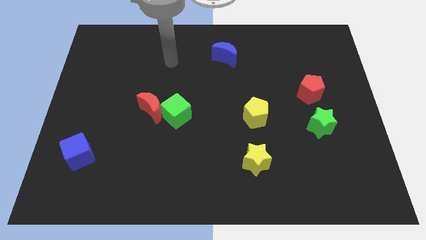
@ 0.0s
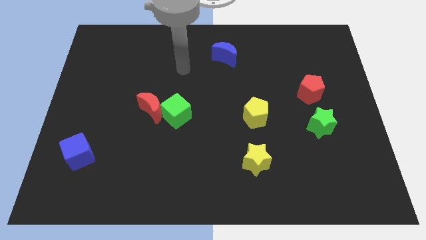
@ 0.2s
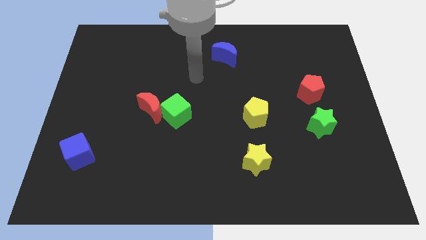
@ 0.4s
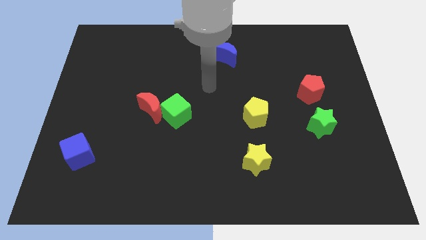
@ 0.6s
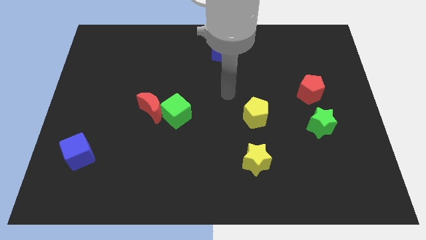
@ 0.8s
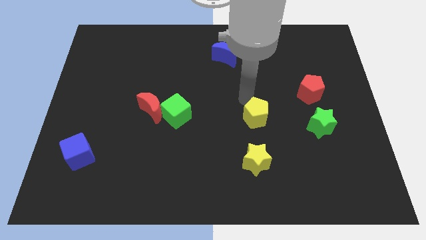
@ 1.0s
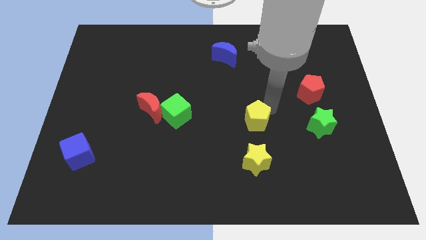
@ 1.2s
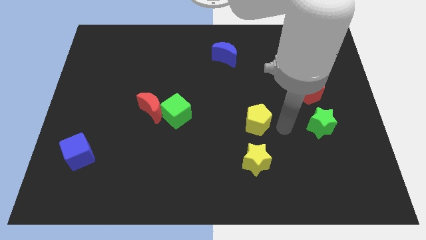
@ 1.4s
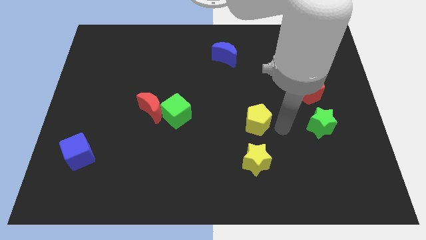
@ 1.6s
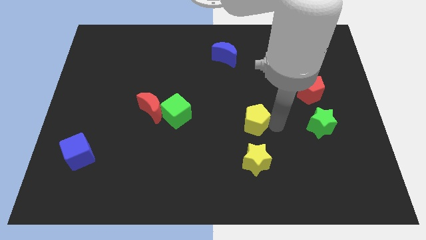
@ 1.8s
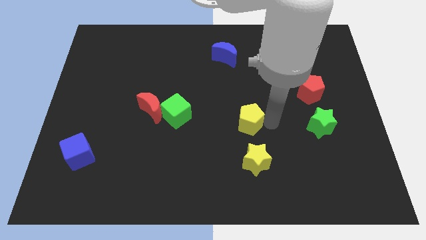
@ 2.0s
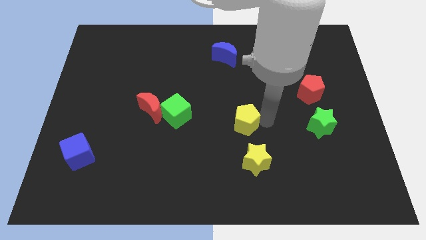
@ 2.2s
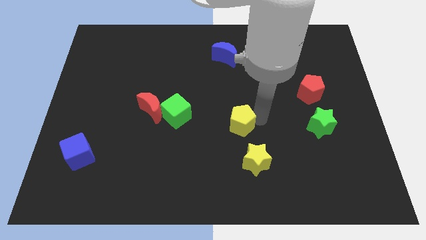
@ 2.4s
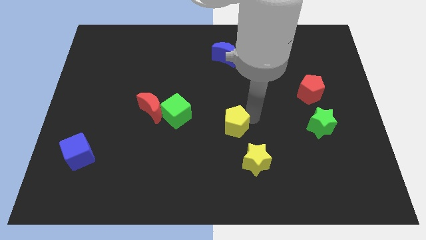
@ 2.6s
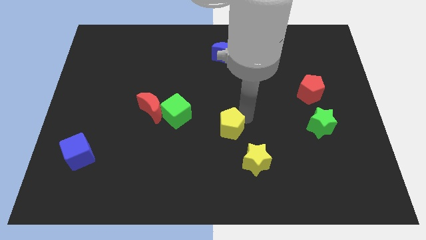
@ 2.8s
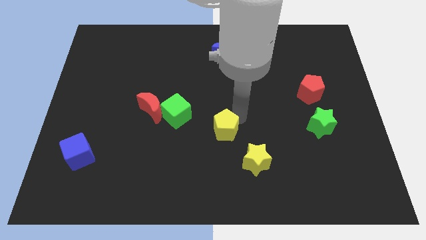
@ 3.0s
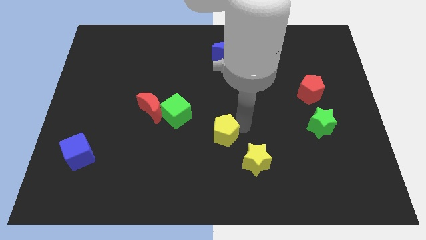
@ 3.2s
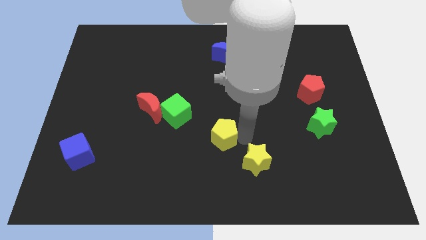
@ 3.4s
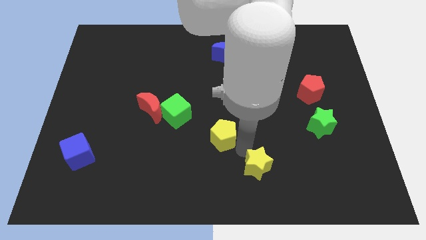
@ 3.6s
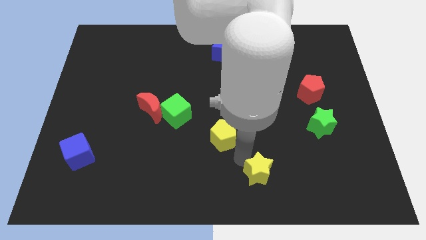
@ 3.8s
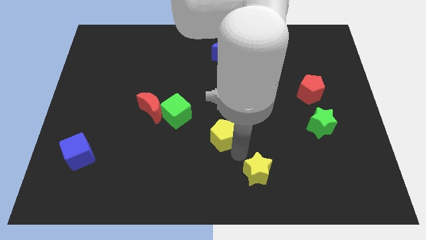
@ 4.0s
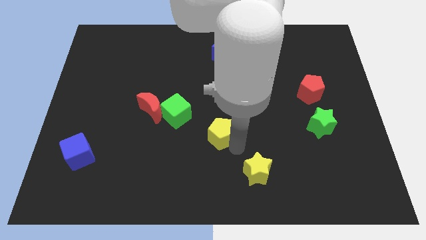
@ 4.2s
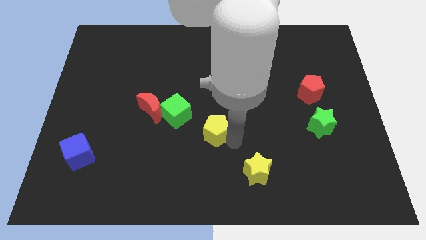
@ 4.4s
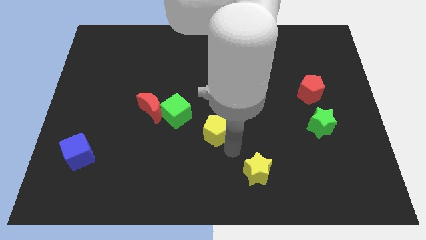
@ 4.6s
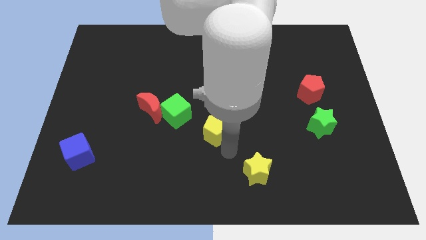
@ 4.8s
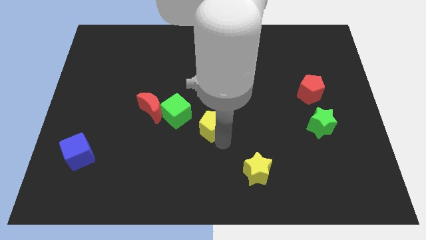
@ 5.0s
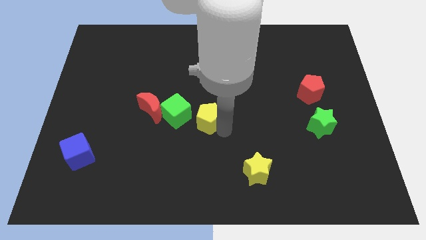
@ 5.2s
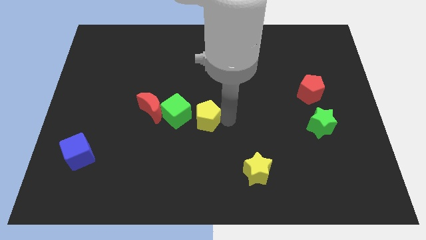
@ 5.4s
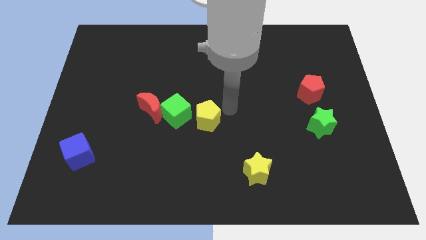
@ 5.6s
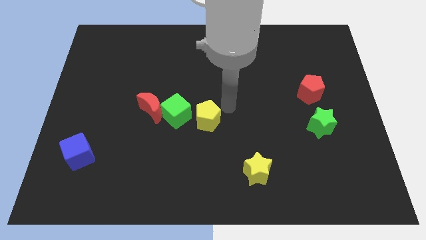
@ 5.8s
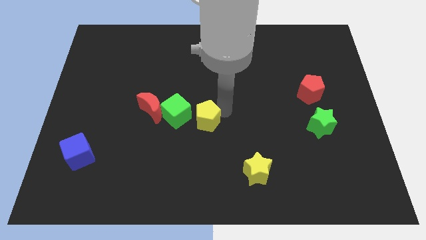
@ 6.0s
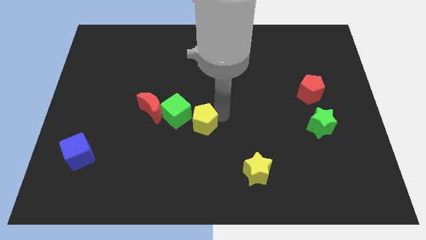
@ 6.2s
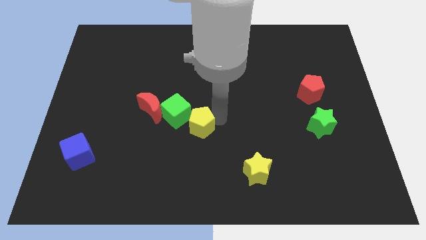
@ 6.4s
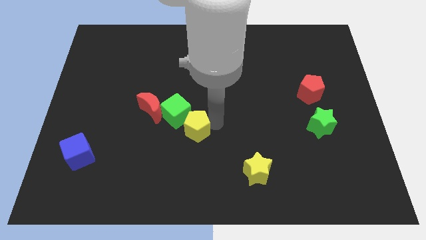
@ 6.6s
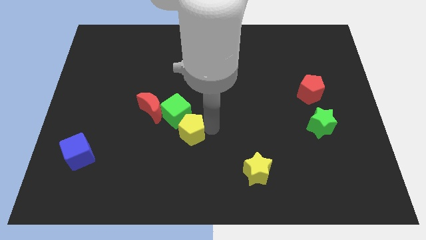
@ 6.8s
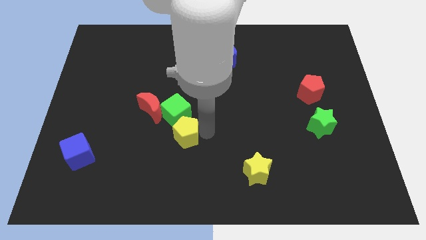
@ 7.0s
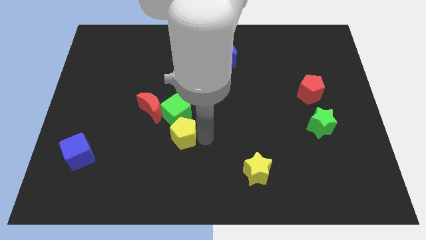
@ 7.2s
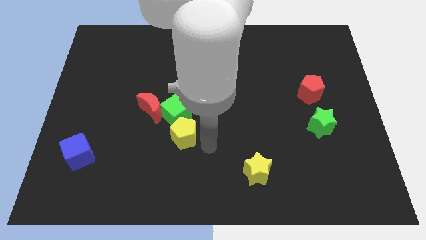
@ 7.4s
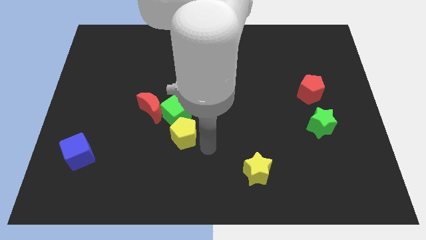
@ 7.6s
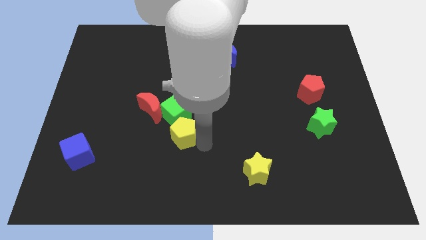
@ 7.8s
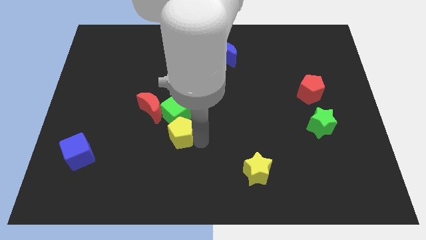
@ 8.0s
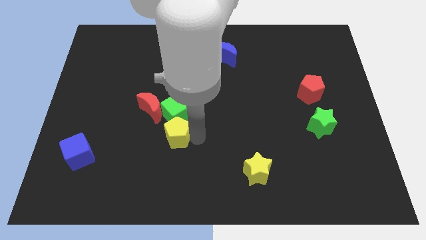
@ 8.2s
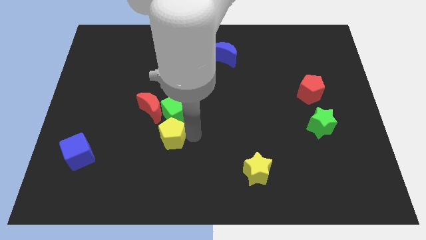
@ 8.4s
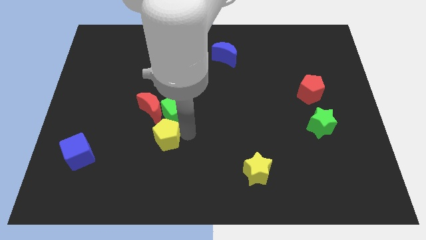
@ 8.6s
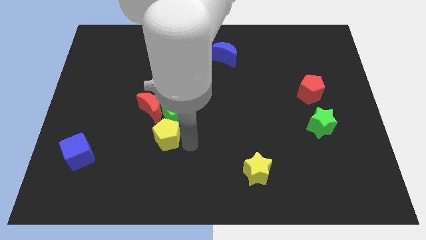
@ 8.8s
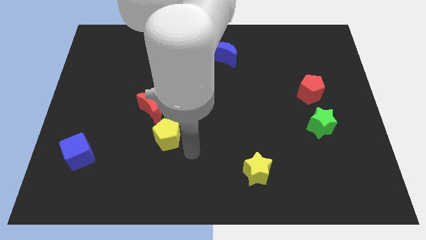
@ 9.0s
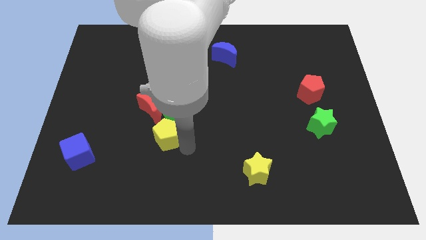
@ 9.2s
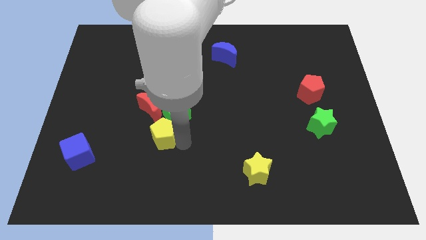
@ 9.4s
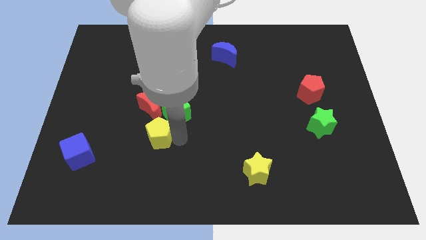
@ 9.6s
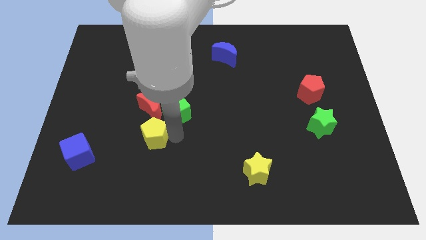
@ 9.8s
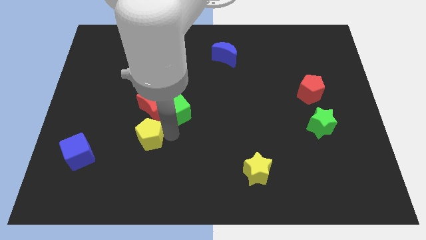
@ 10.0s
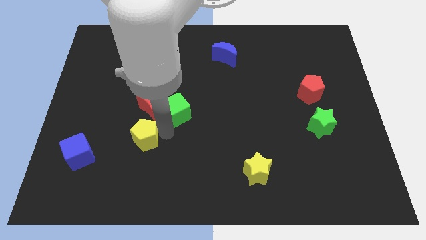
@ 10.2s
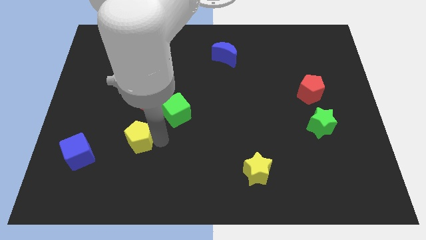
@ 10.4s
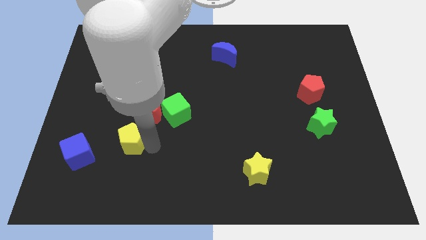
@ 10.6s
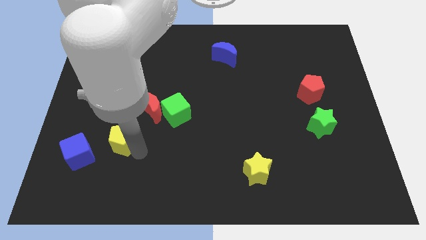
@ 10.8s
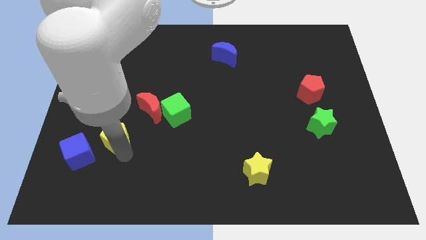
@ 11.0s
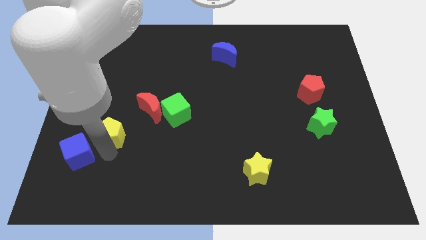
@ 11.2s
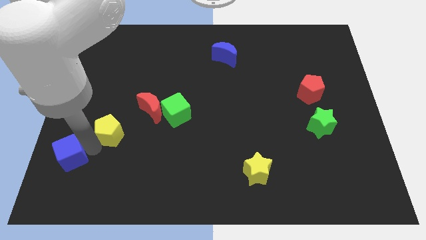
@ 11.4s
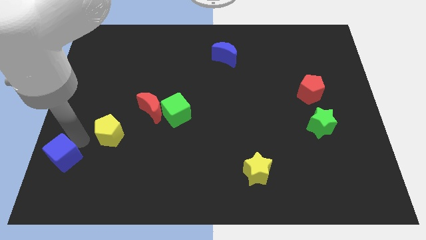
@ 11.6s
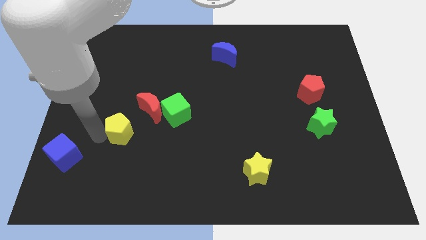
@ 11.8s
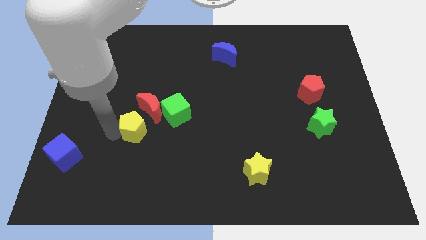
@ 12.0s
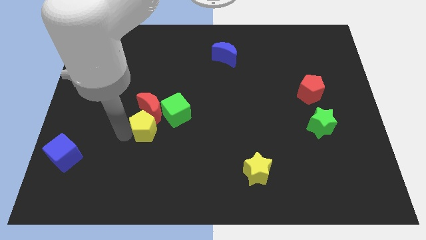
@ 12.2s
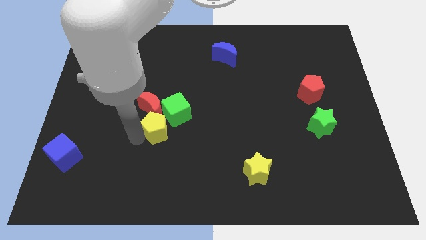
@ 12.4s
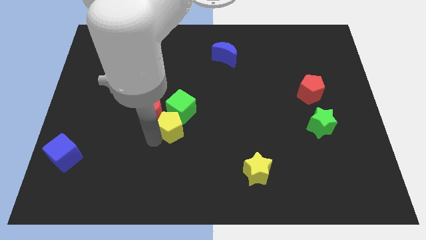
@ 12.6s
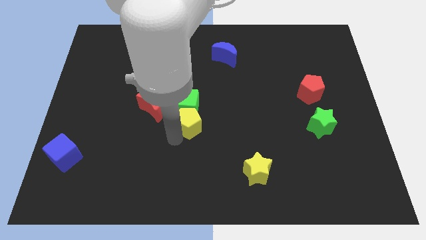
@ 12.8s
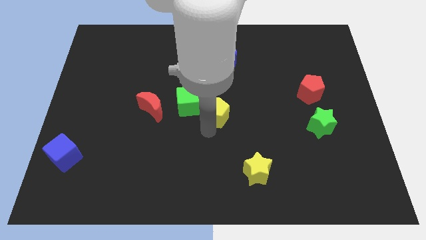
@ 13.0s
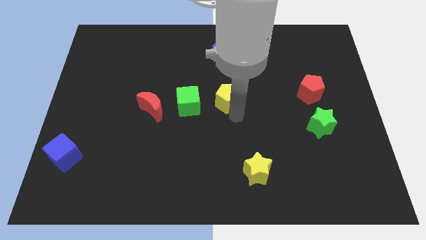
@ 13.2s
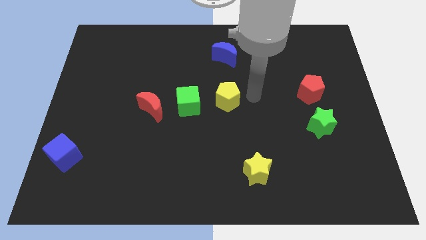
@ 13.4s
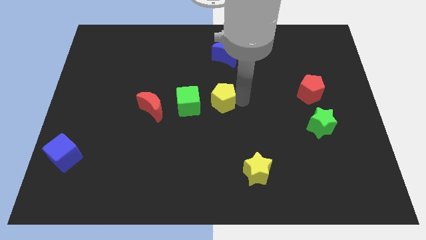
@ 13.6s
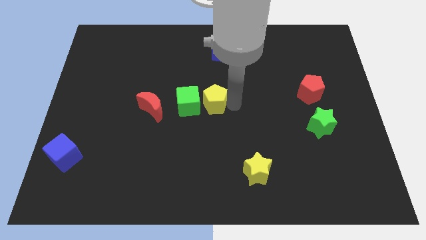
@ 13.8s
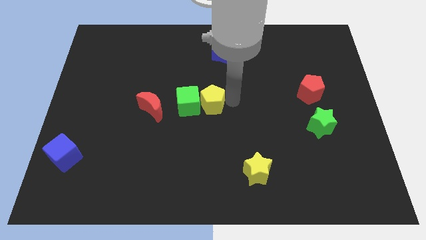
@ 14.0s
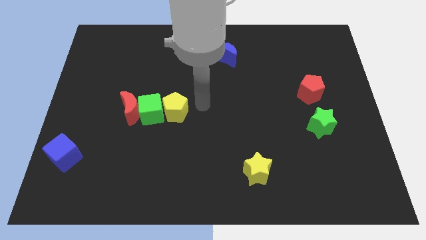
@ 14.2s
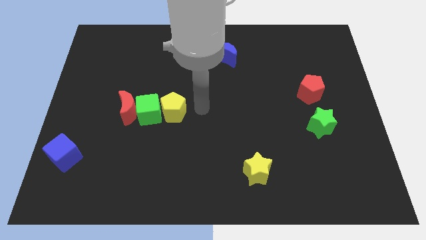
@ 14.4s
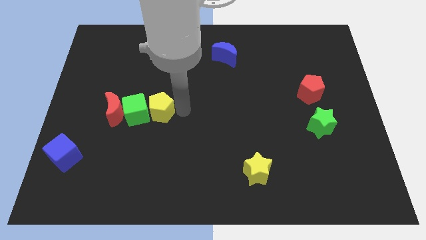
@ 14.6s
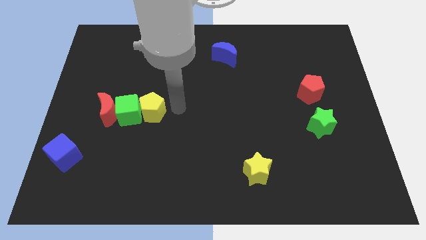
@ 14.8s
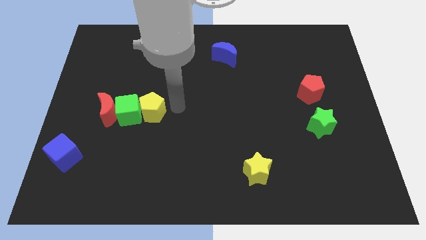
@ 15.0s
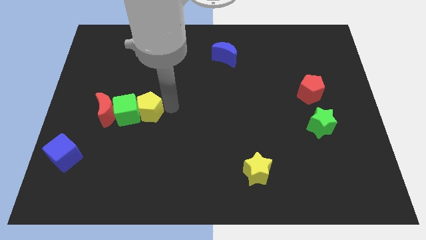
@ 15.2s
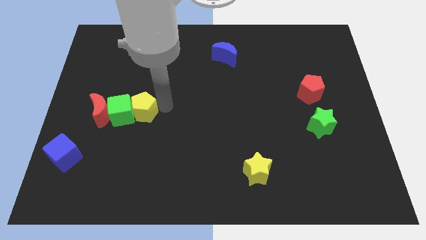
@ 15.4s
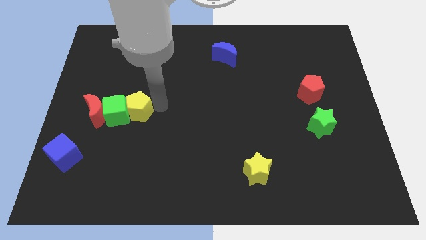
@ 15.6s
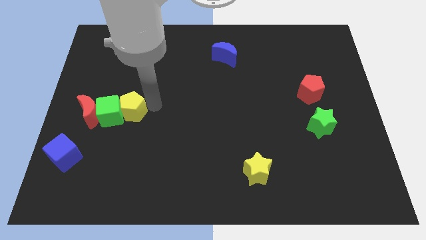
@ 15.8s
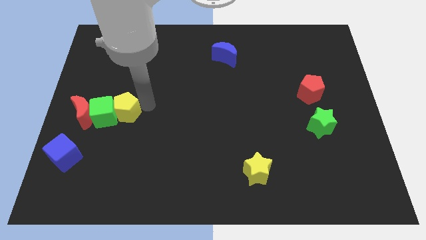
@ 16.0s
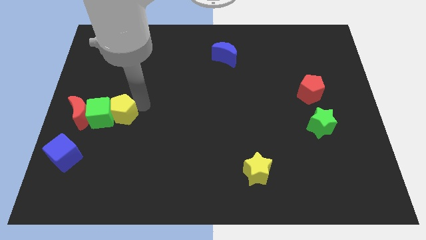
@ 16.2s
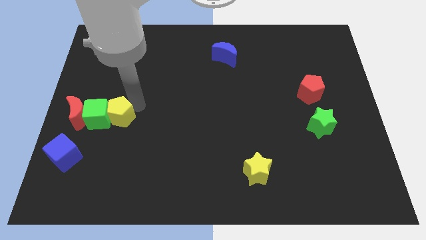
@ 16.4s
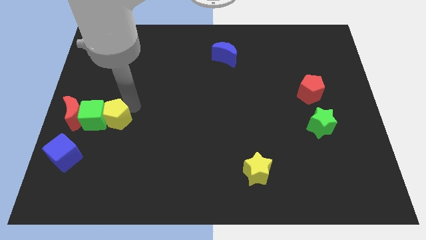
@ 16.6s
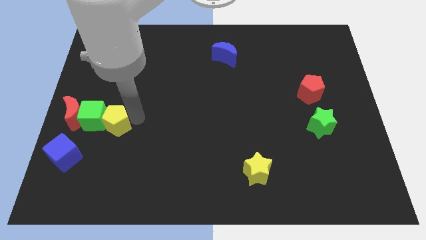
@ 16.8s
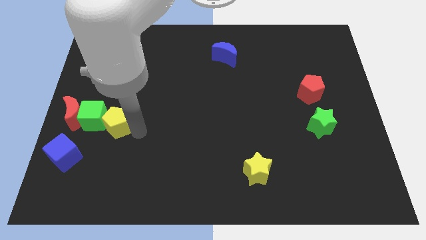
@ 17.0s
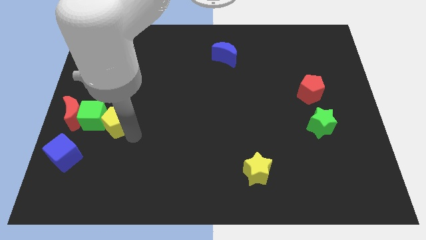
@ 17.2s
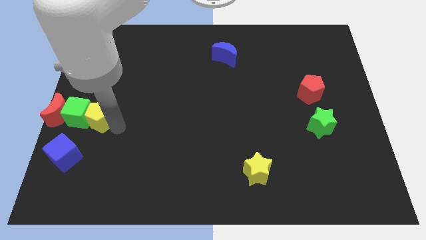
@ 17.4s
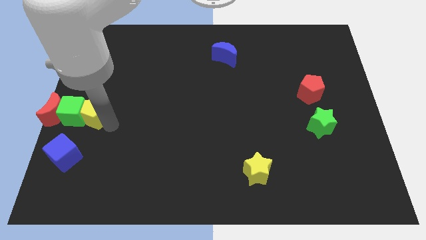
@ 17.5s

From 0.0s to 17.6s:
slide the yellow pentagon to the left side of the board
